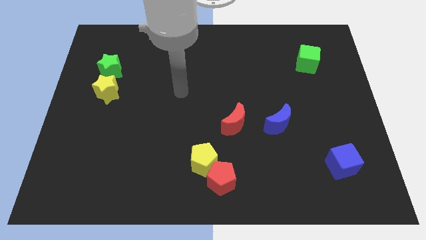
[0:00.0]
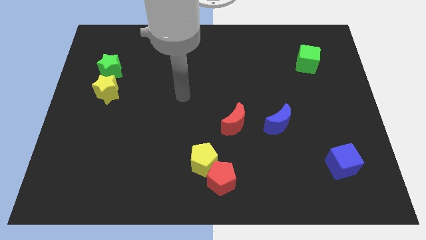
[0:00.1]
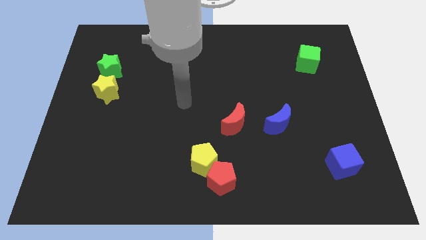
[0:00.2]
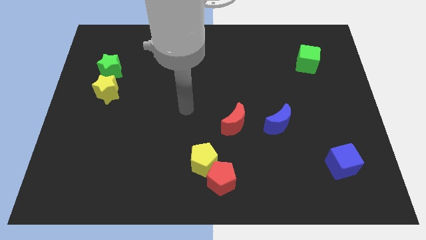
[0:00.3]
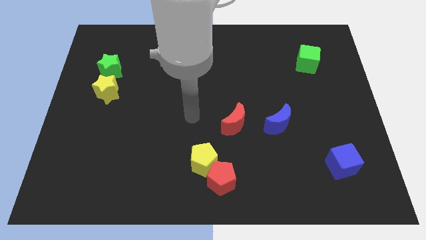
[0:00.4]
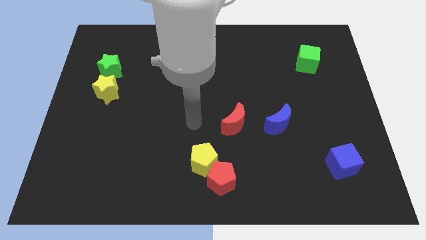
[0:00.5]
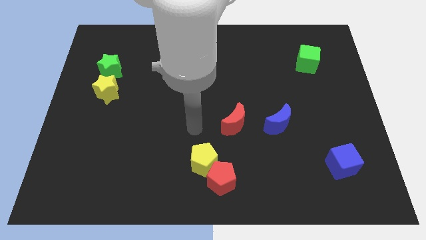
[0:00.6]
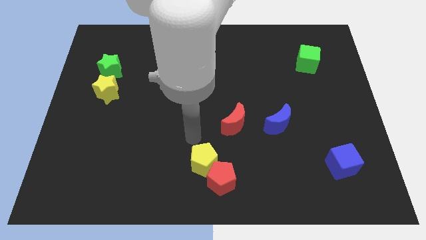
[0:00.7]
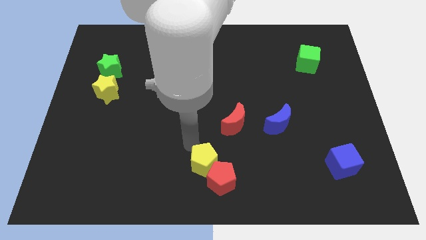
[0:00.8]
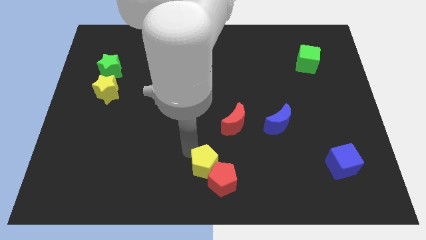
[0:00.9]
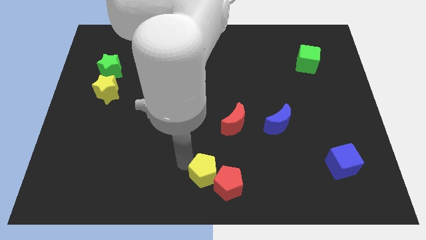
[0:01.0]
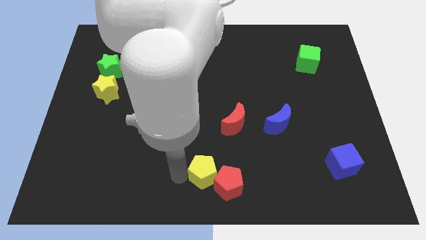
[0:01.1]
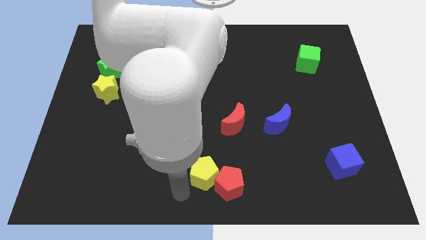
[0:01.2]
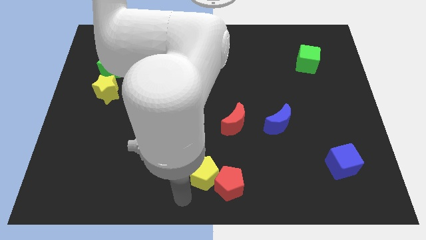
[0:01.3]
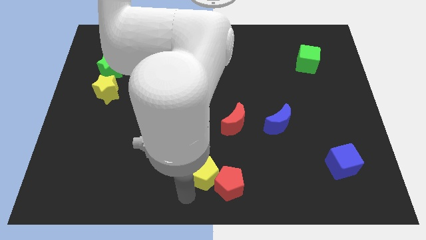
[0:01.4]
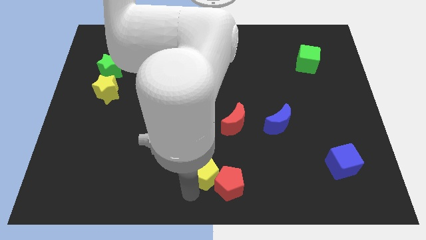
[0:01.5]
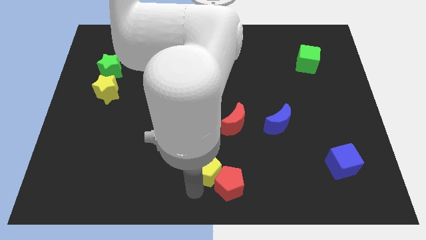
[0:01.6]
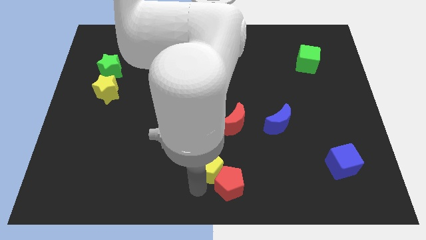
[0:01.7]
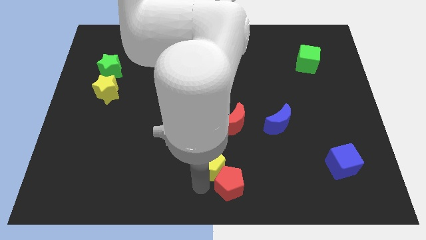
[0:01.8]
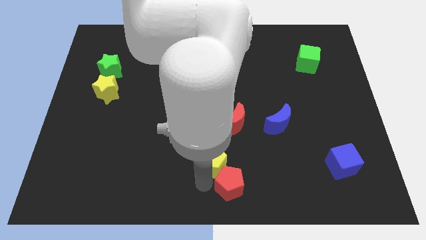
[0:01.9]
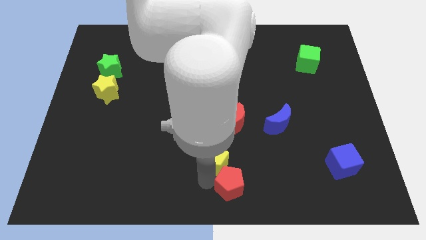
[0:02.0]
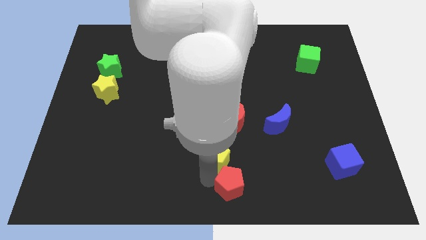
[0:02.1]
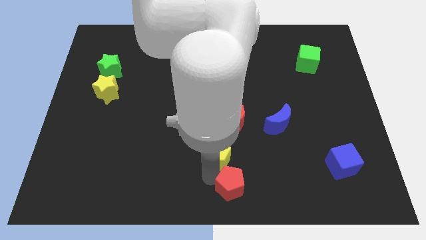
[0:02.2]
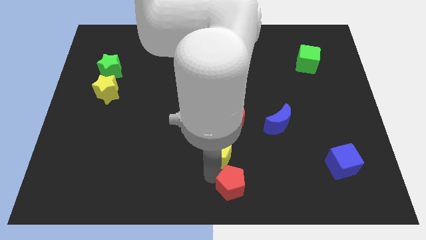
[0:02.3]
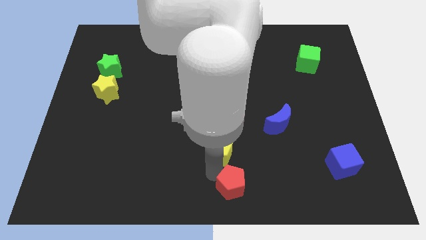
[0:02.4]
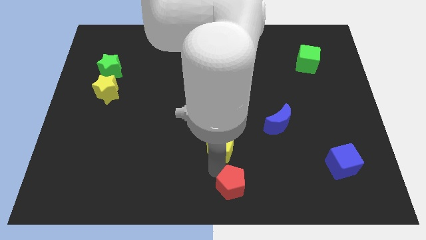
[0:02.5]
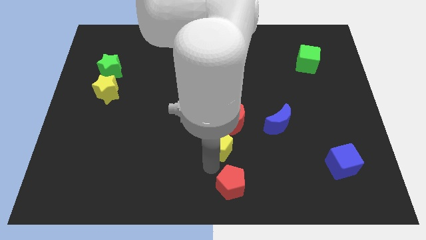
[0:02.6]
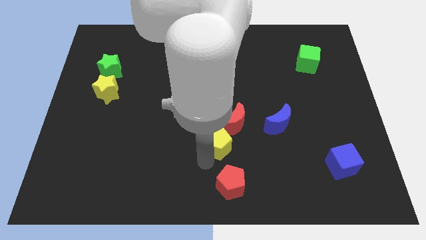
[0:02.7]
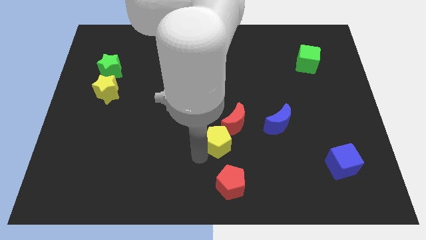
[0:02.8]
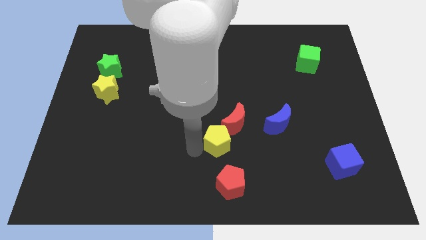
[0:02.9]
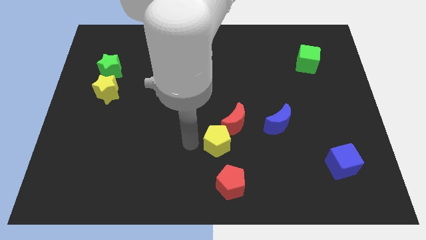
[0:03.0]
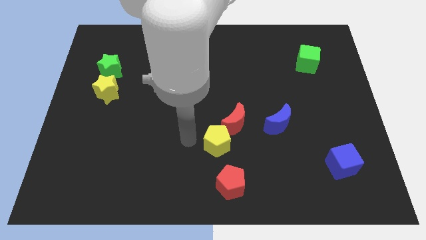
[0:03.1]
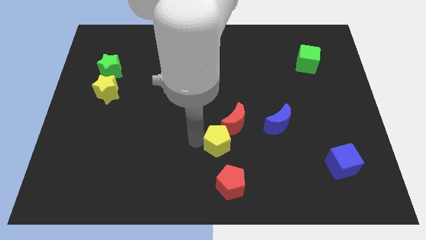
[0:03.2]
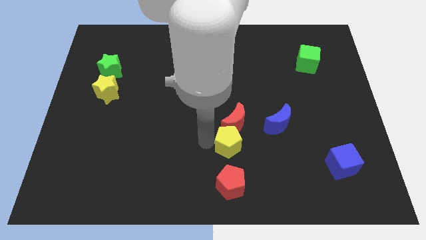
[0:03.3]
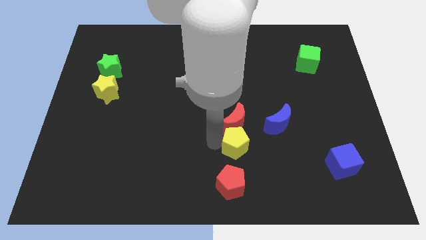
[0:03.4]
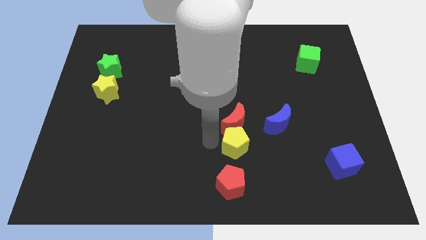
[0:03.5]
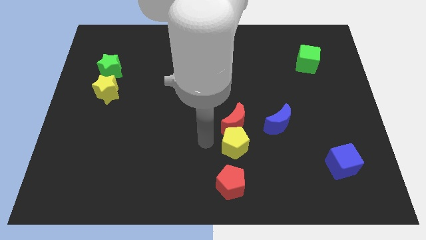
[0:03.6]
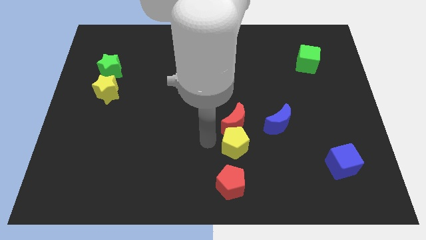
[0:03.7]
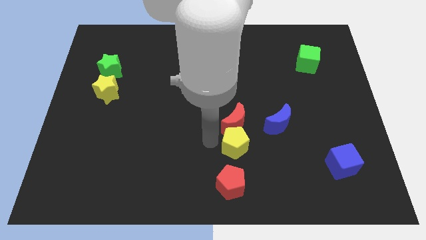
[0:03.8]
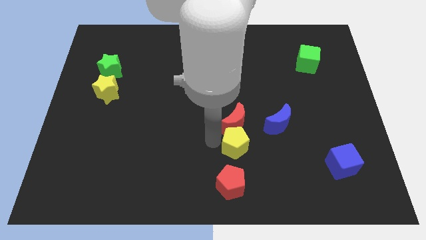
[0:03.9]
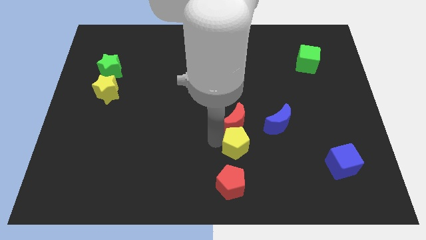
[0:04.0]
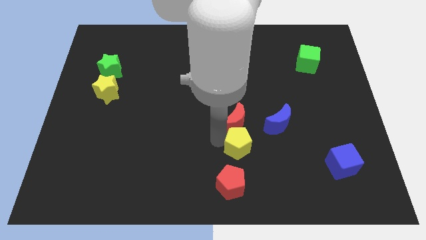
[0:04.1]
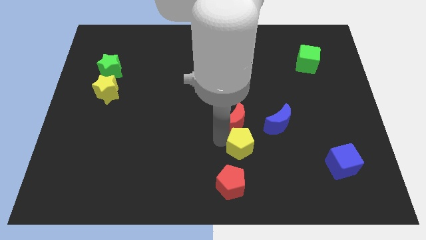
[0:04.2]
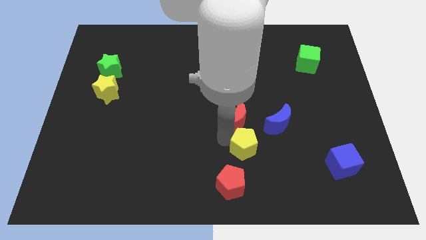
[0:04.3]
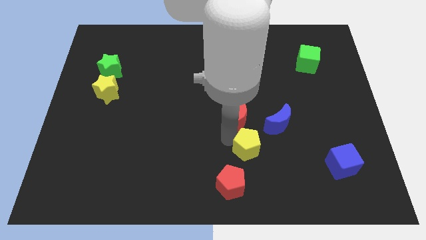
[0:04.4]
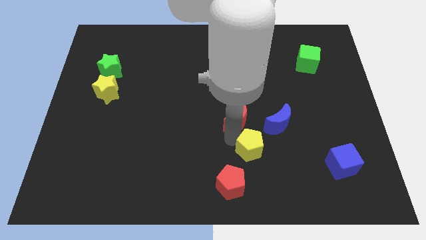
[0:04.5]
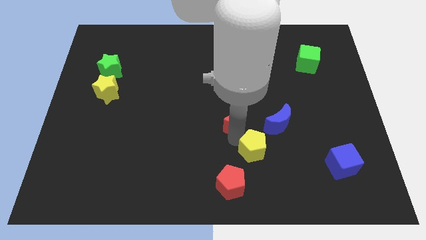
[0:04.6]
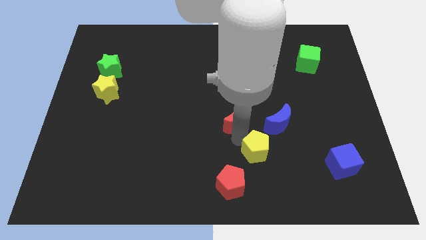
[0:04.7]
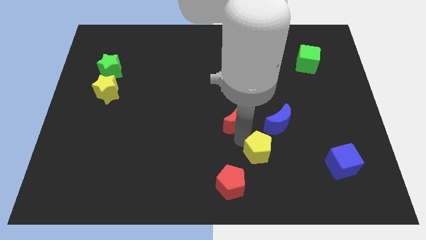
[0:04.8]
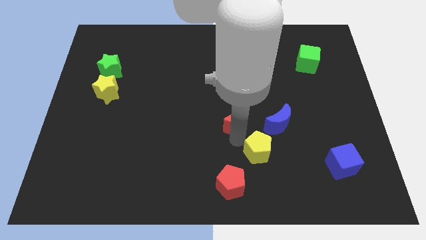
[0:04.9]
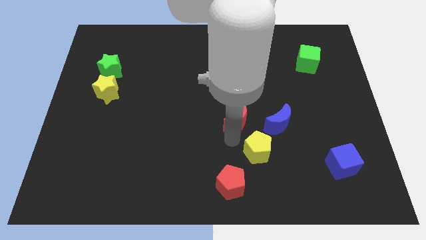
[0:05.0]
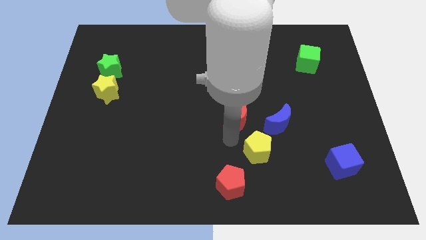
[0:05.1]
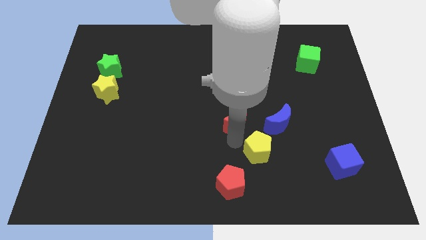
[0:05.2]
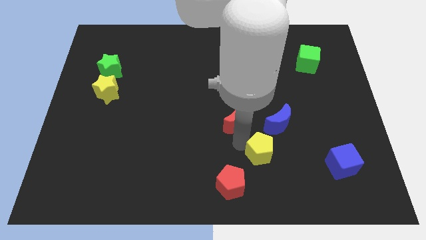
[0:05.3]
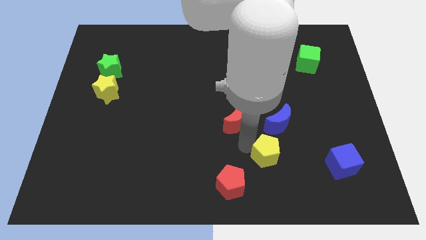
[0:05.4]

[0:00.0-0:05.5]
push the yellow pentagon just left of the blue cube
